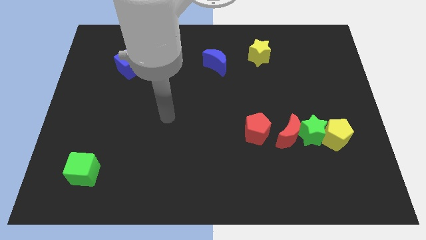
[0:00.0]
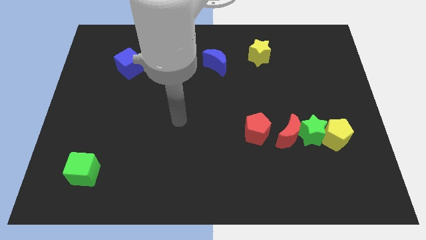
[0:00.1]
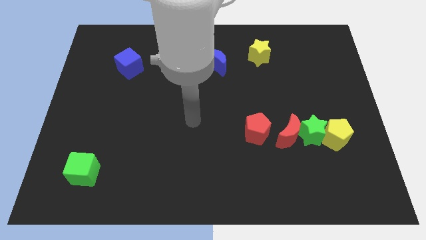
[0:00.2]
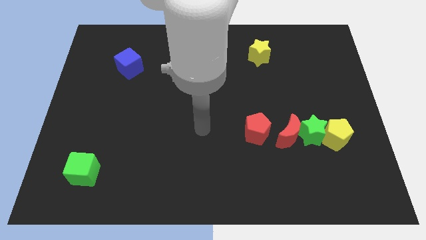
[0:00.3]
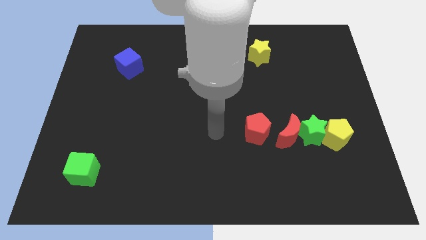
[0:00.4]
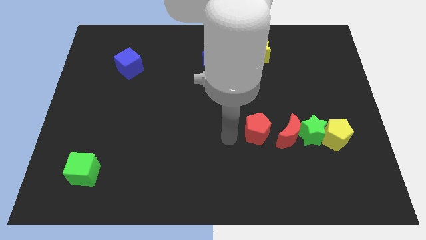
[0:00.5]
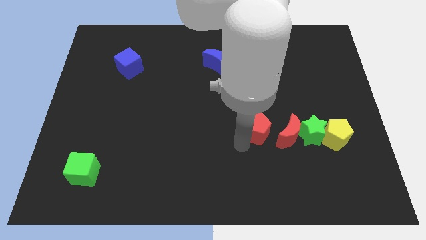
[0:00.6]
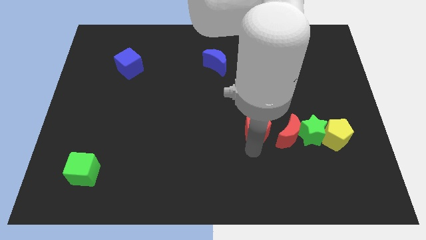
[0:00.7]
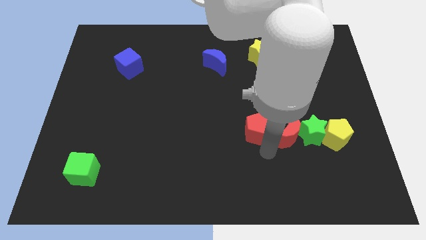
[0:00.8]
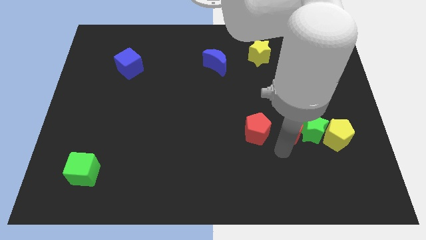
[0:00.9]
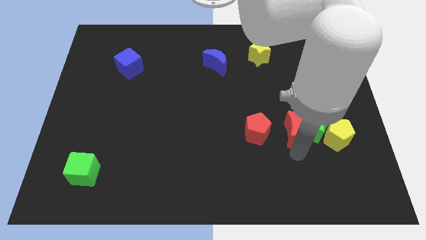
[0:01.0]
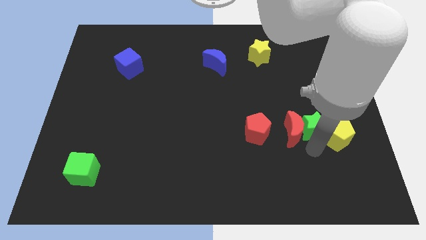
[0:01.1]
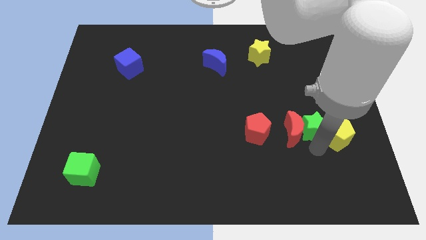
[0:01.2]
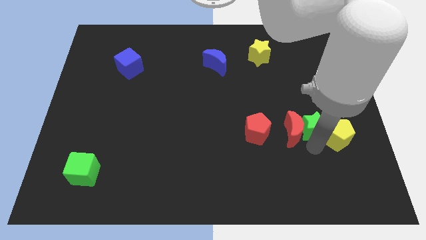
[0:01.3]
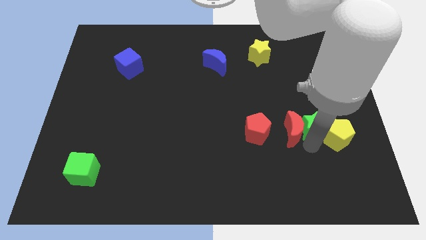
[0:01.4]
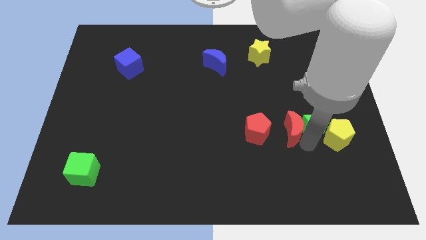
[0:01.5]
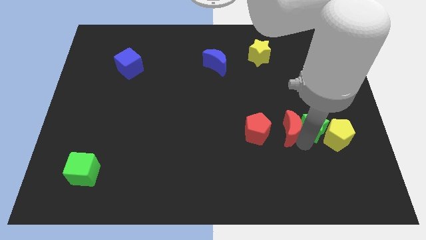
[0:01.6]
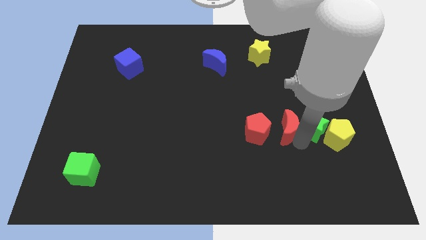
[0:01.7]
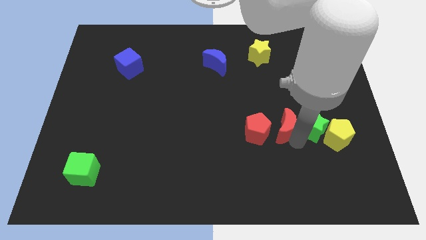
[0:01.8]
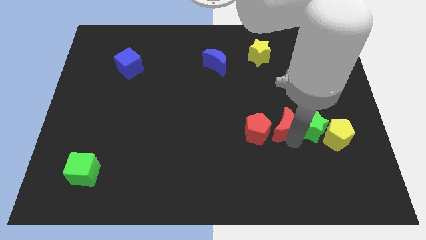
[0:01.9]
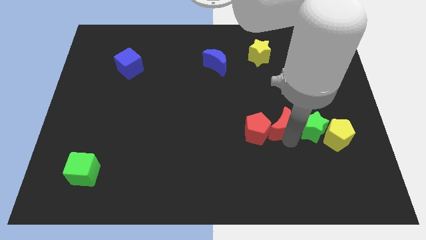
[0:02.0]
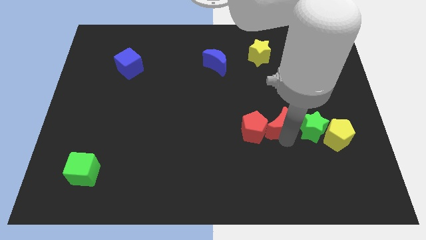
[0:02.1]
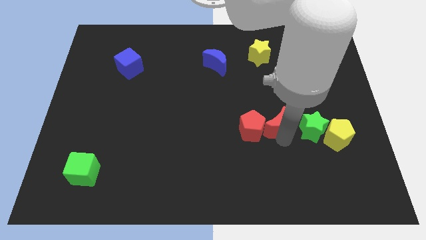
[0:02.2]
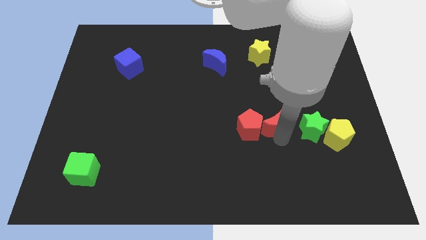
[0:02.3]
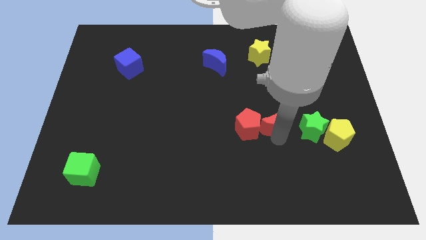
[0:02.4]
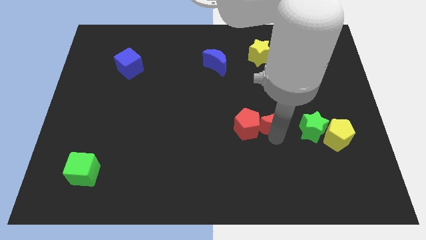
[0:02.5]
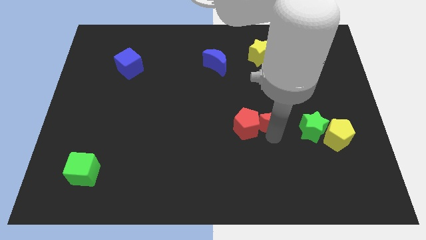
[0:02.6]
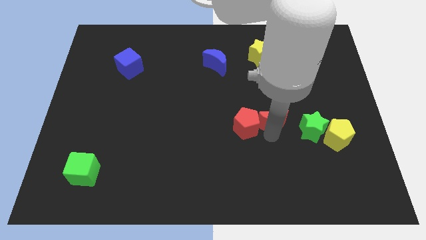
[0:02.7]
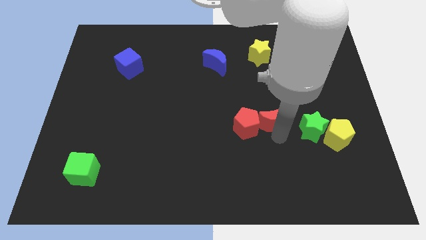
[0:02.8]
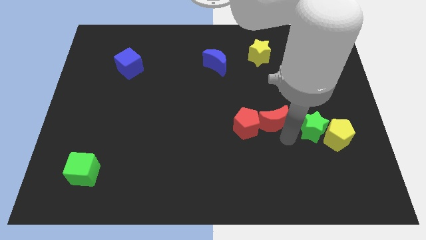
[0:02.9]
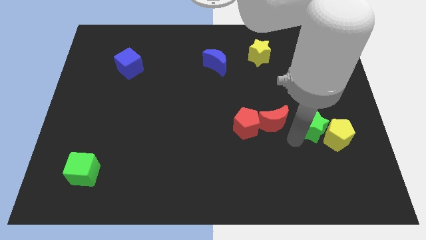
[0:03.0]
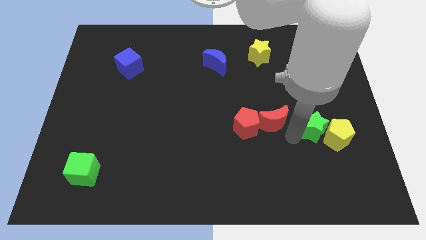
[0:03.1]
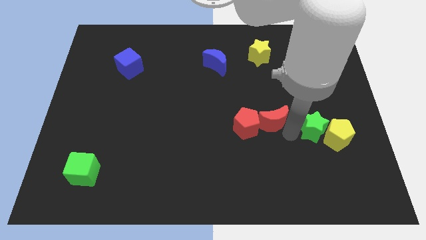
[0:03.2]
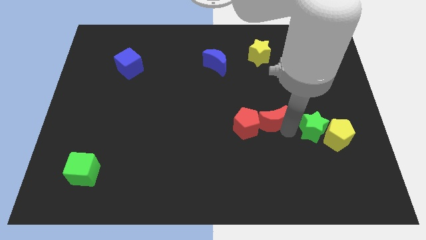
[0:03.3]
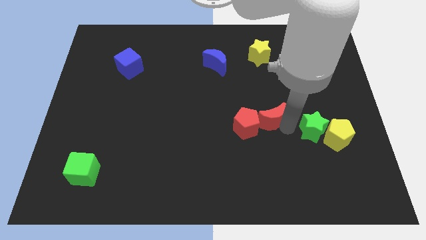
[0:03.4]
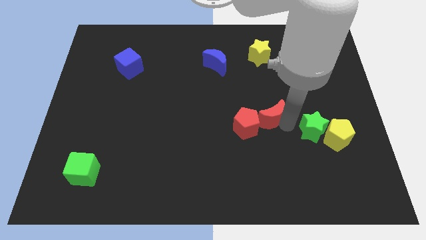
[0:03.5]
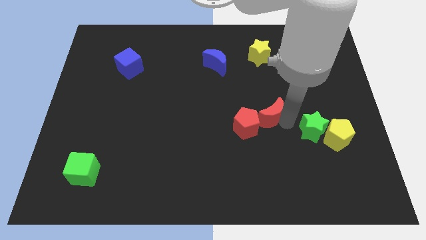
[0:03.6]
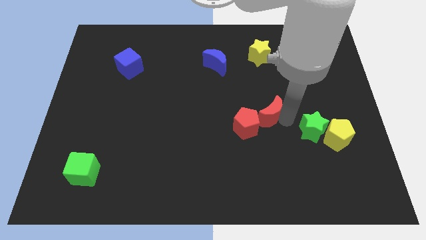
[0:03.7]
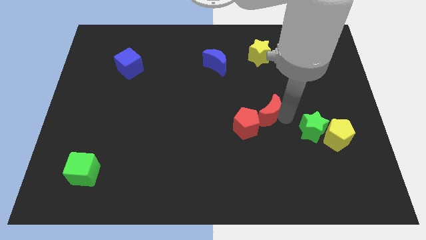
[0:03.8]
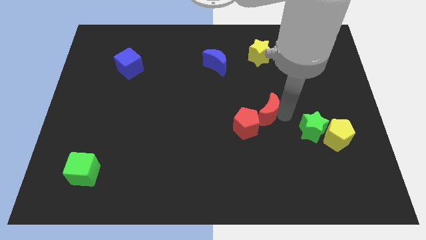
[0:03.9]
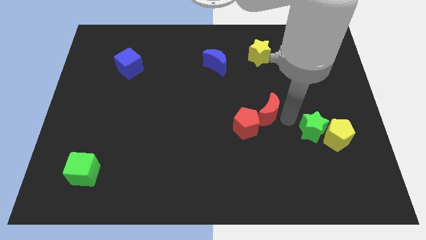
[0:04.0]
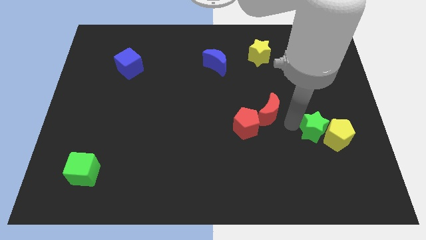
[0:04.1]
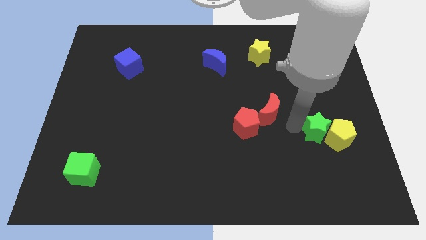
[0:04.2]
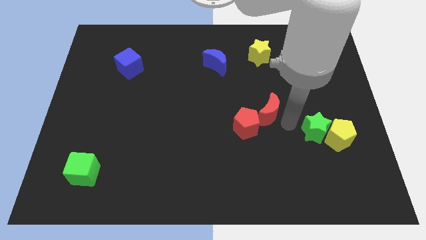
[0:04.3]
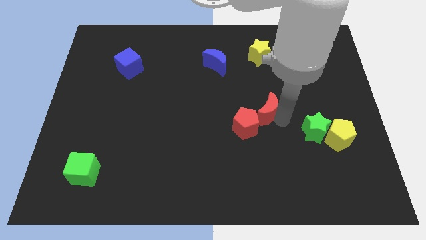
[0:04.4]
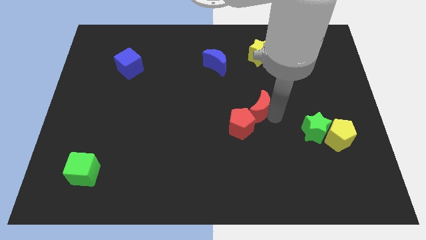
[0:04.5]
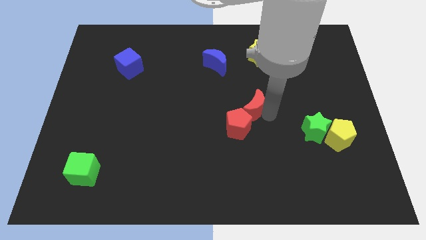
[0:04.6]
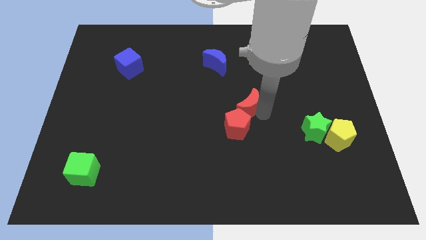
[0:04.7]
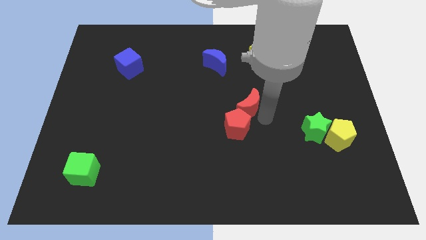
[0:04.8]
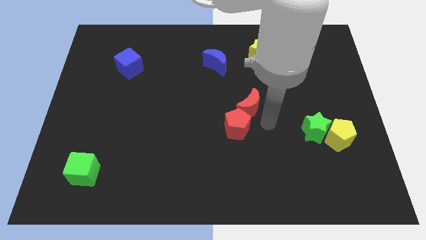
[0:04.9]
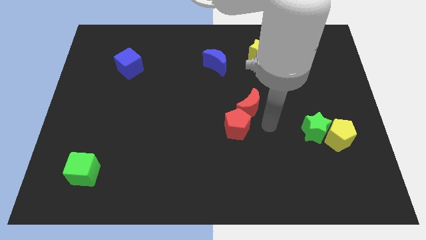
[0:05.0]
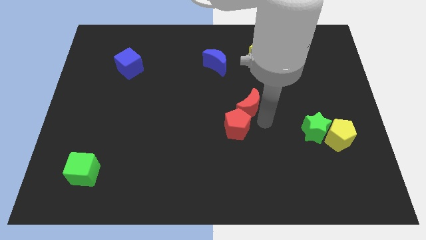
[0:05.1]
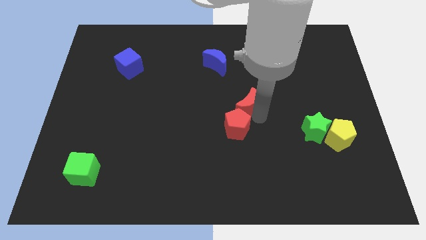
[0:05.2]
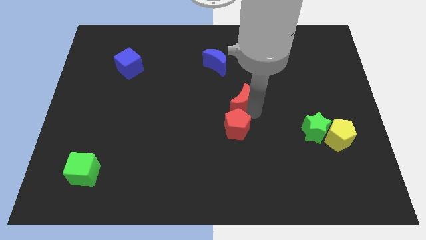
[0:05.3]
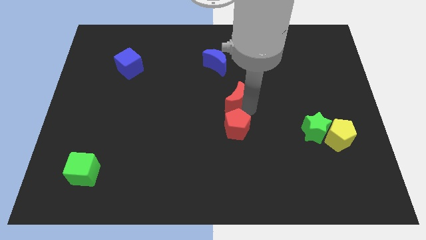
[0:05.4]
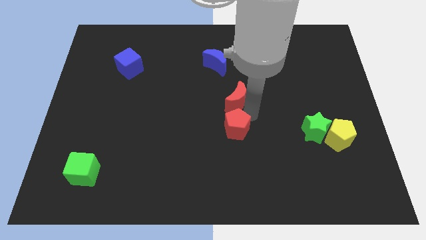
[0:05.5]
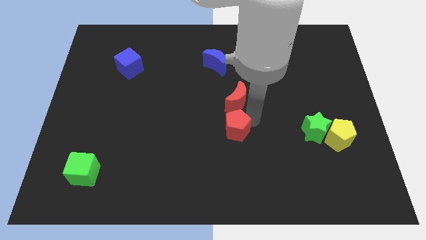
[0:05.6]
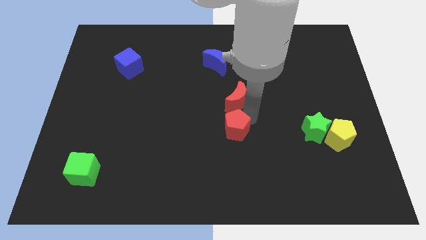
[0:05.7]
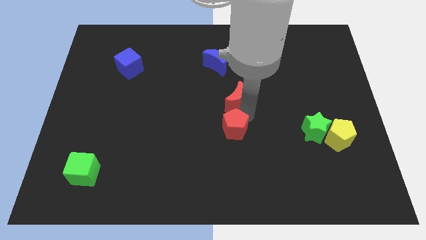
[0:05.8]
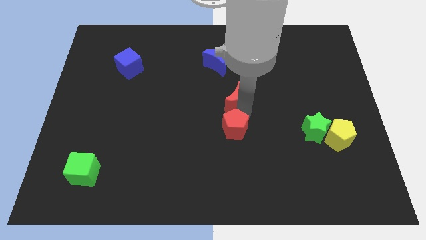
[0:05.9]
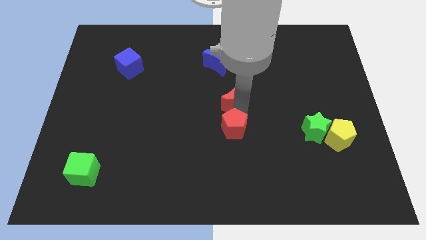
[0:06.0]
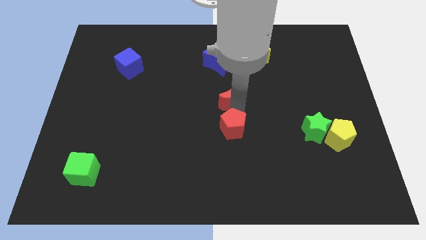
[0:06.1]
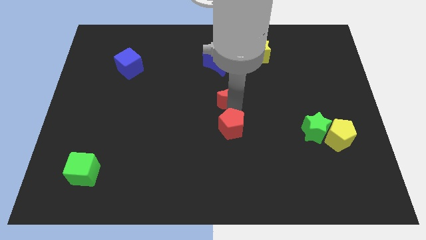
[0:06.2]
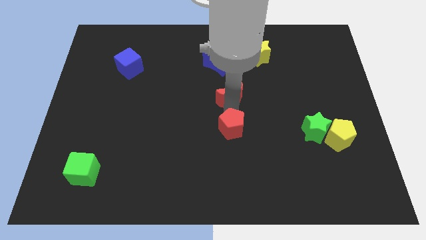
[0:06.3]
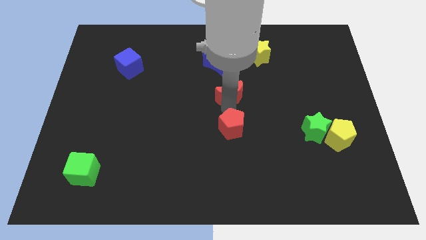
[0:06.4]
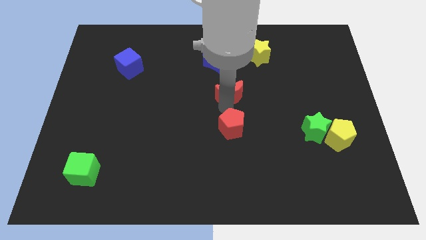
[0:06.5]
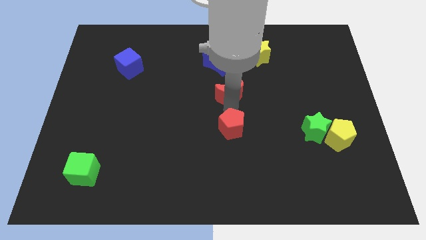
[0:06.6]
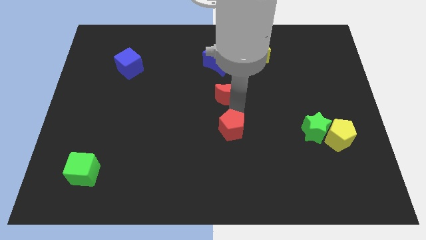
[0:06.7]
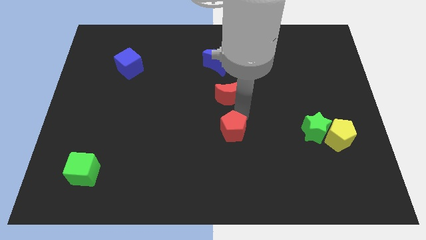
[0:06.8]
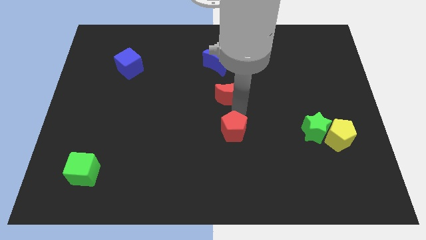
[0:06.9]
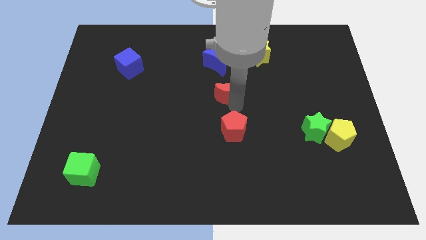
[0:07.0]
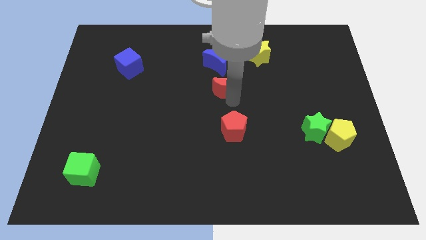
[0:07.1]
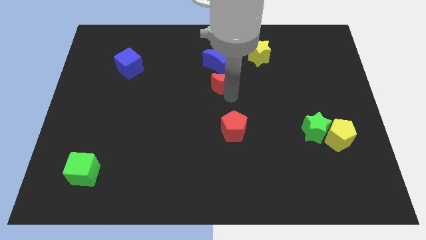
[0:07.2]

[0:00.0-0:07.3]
move the red moon up and to the left diagonally

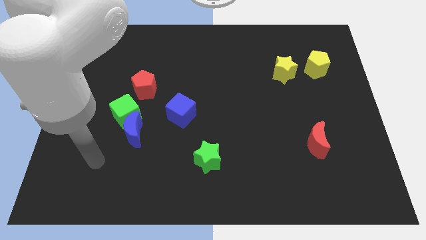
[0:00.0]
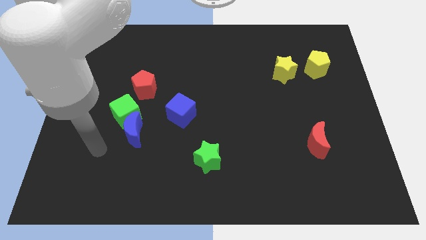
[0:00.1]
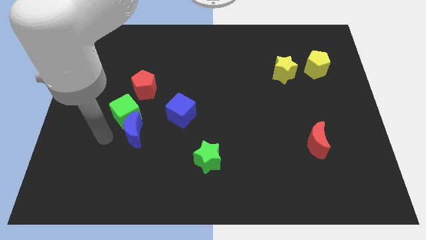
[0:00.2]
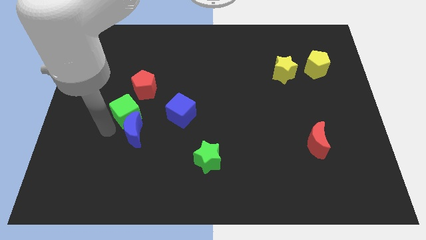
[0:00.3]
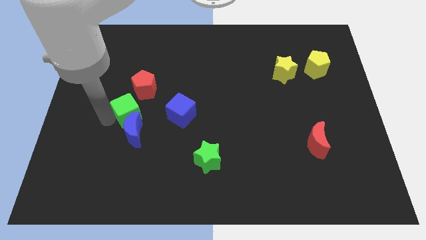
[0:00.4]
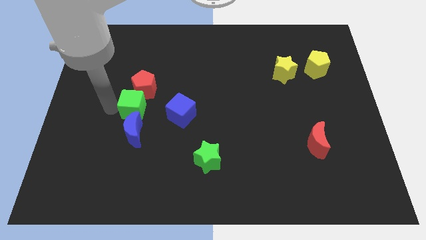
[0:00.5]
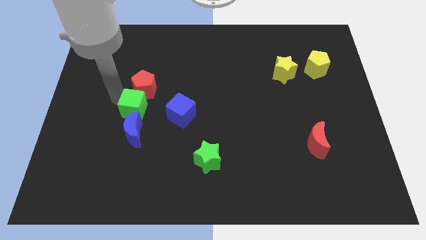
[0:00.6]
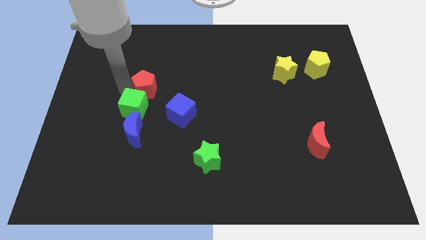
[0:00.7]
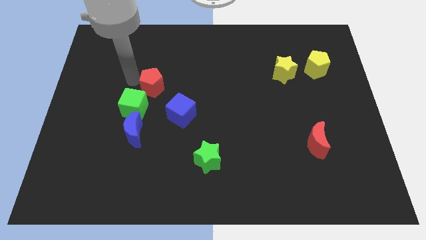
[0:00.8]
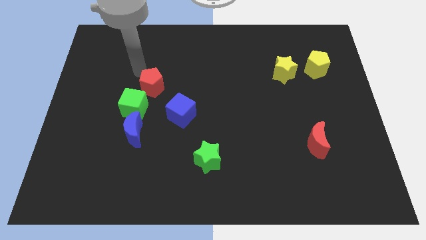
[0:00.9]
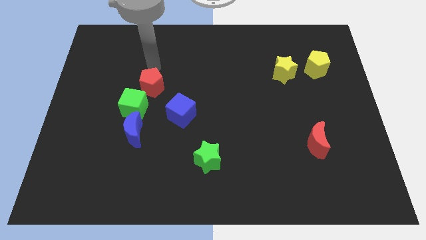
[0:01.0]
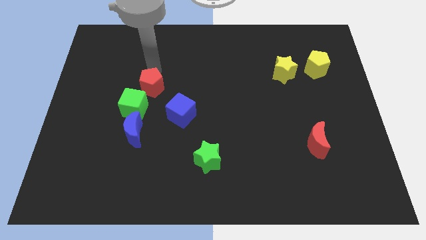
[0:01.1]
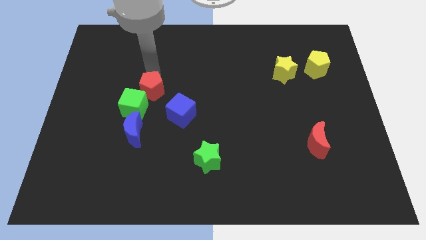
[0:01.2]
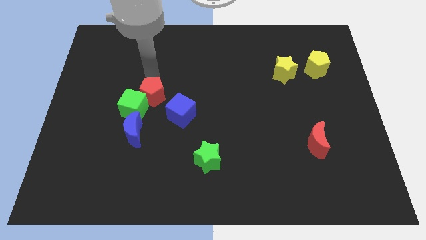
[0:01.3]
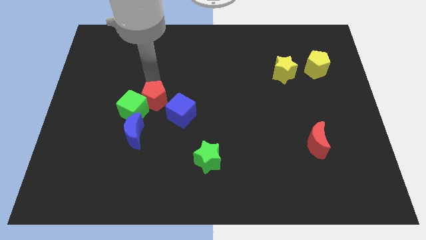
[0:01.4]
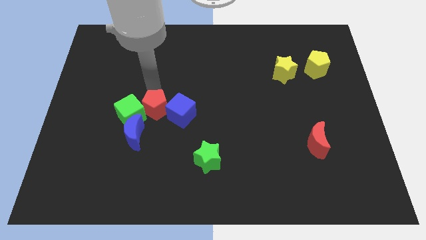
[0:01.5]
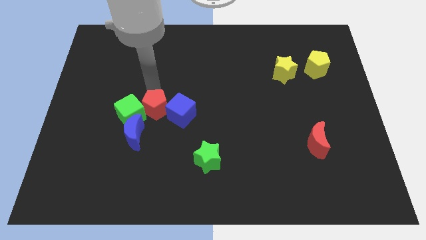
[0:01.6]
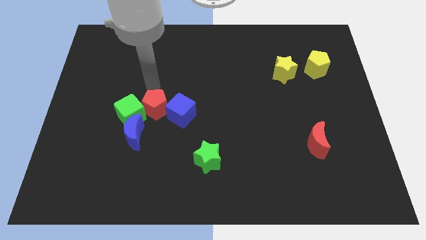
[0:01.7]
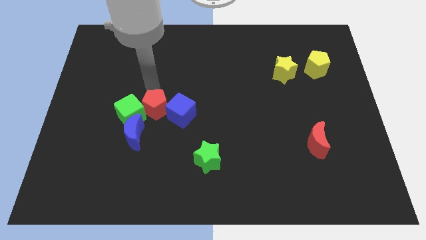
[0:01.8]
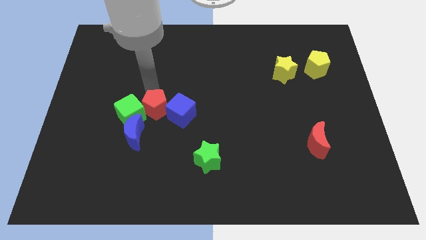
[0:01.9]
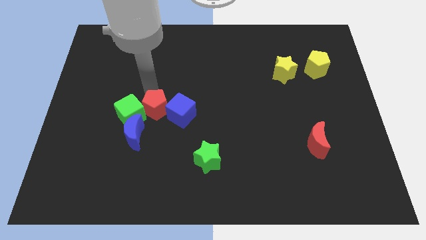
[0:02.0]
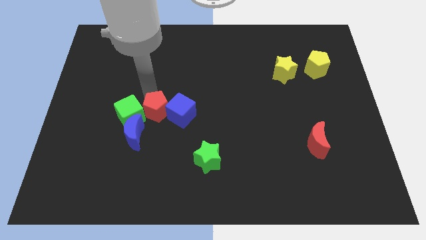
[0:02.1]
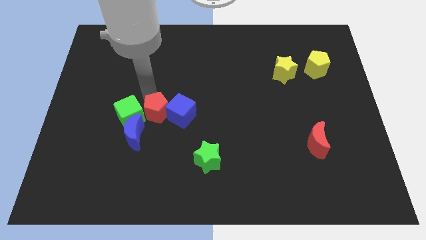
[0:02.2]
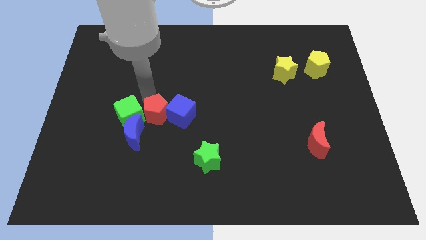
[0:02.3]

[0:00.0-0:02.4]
slide the red pentagon downwards a bit
